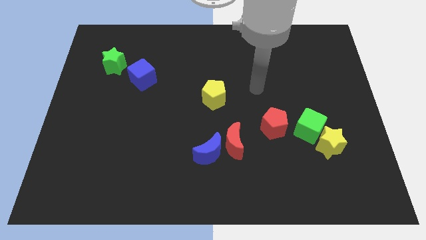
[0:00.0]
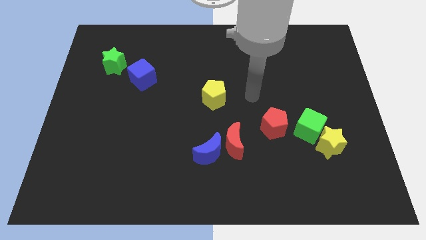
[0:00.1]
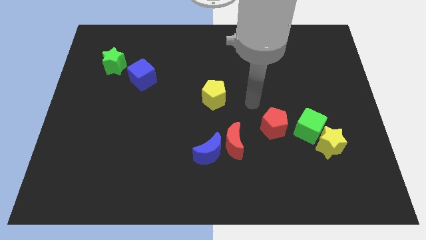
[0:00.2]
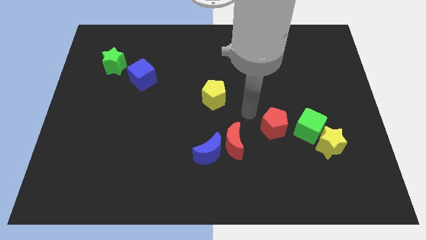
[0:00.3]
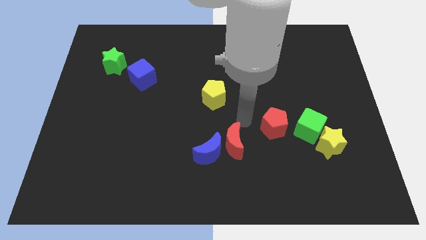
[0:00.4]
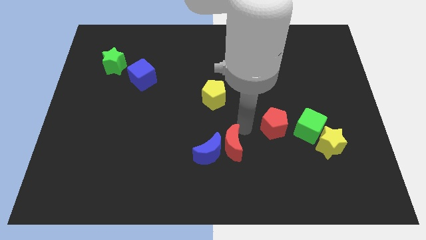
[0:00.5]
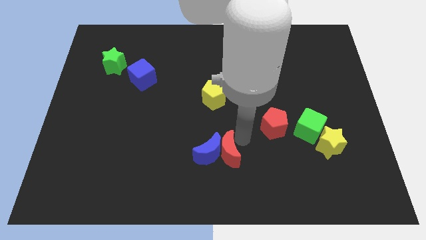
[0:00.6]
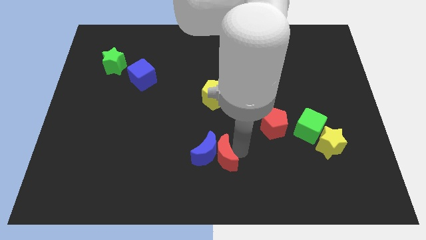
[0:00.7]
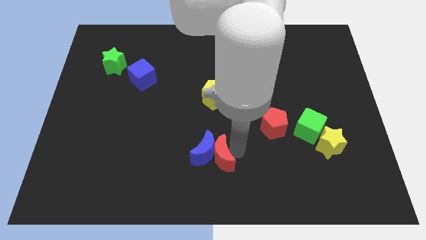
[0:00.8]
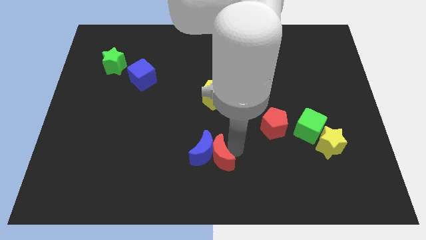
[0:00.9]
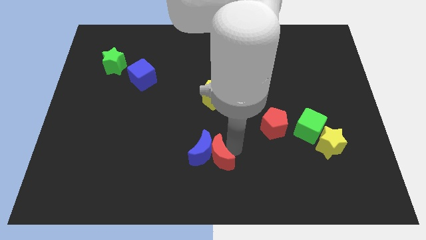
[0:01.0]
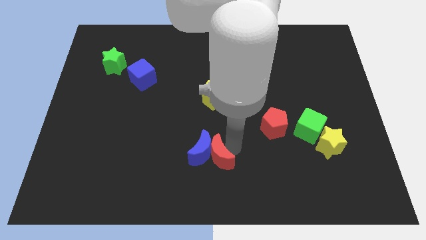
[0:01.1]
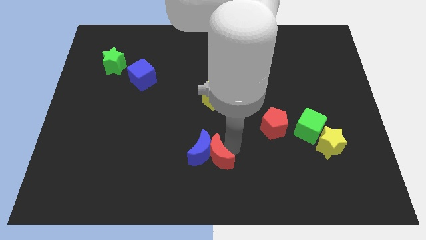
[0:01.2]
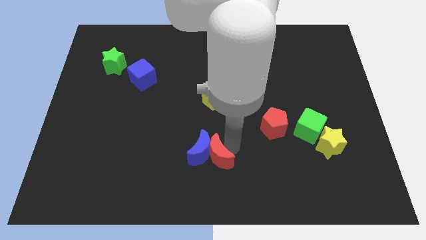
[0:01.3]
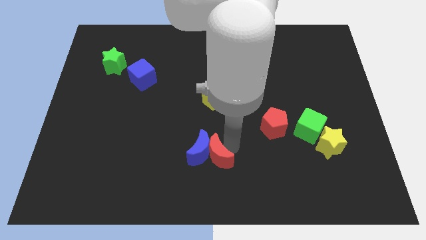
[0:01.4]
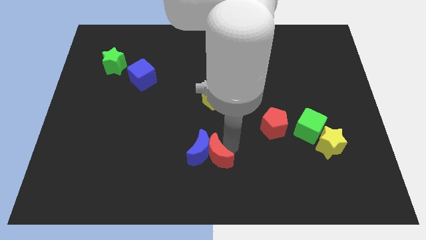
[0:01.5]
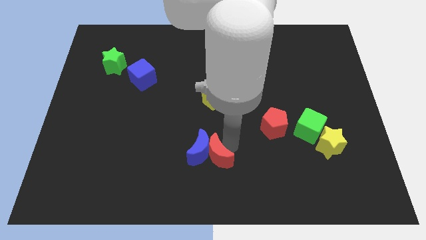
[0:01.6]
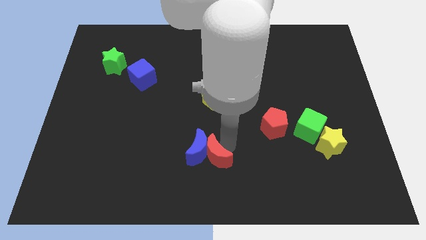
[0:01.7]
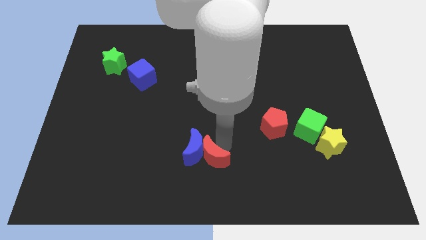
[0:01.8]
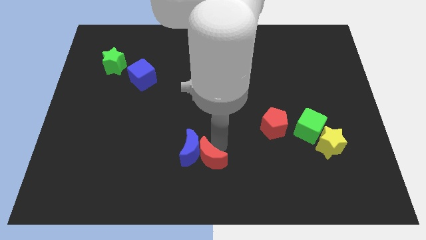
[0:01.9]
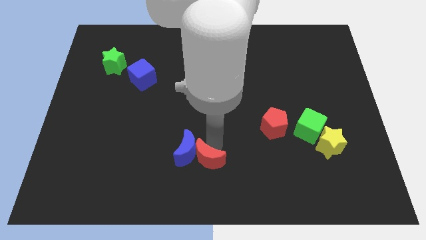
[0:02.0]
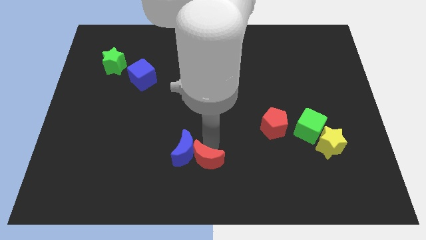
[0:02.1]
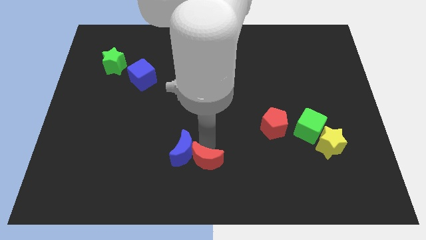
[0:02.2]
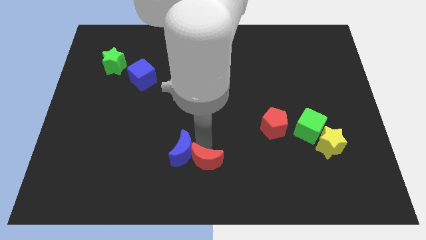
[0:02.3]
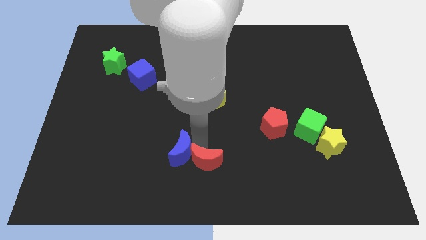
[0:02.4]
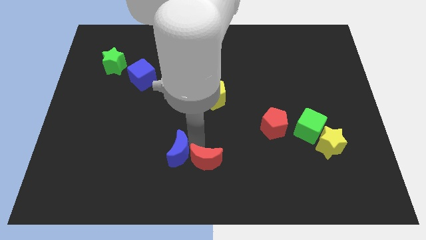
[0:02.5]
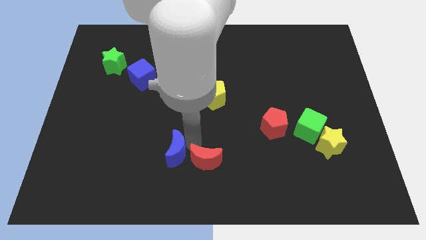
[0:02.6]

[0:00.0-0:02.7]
slide the blue moon a bit to the left

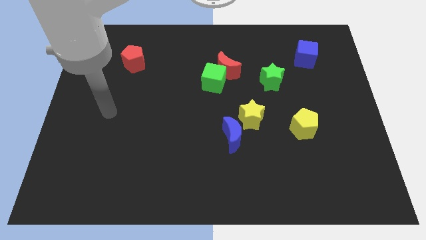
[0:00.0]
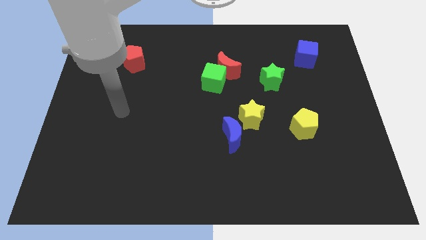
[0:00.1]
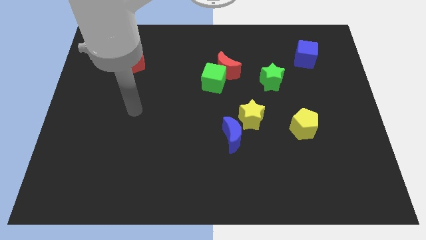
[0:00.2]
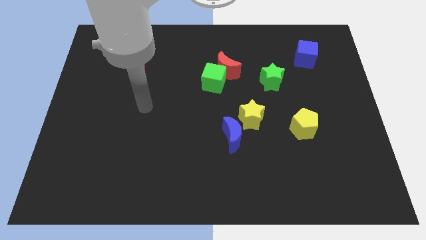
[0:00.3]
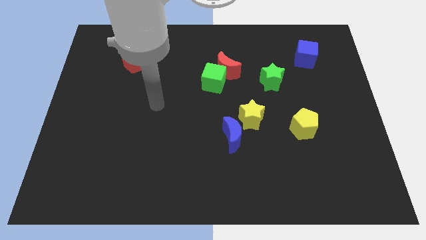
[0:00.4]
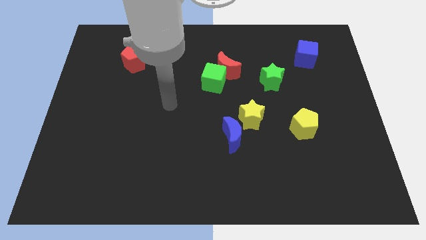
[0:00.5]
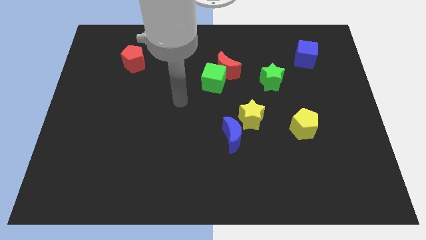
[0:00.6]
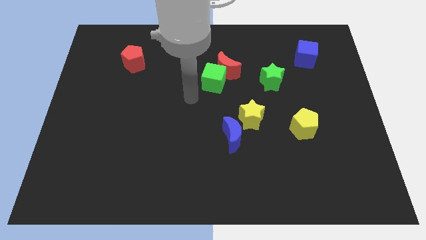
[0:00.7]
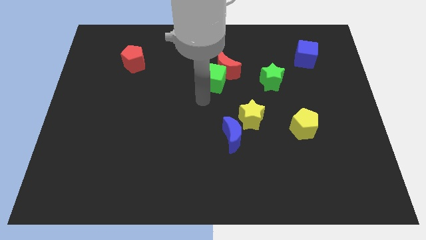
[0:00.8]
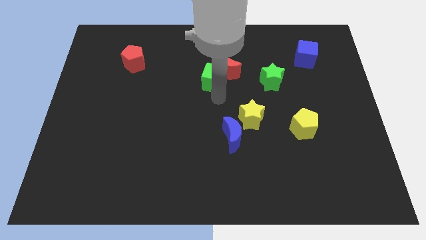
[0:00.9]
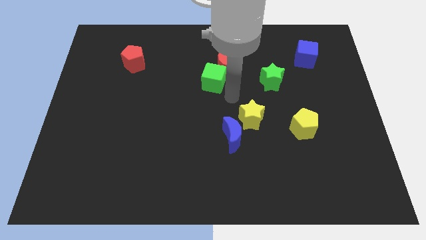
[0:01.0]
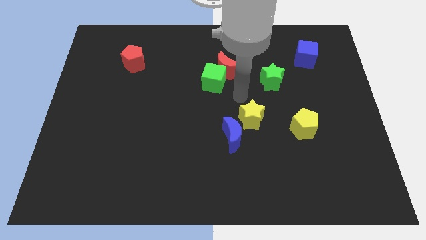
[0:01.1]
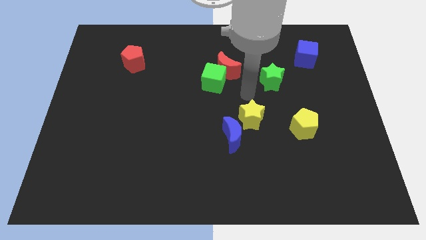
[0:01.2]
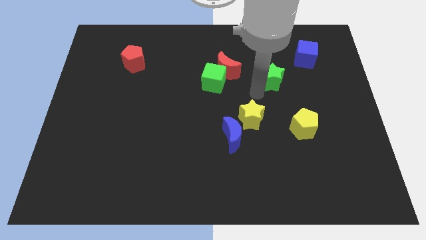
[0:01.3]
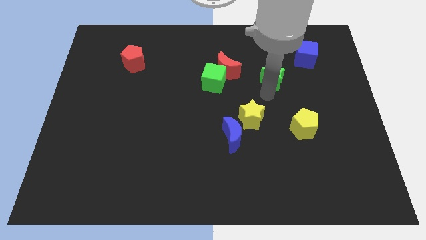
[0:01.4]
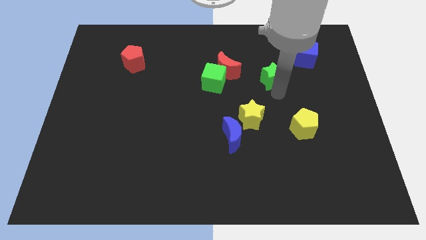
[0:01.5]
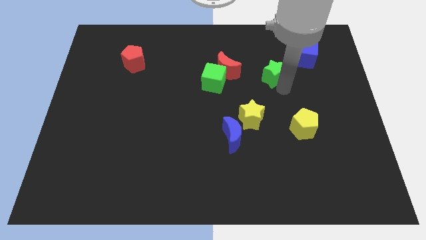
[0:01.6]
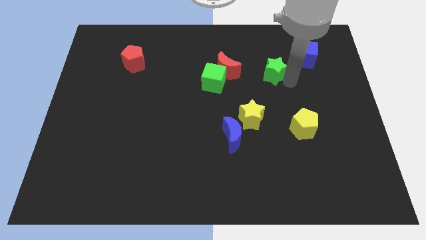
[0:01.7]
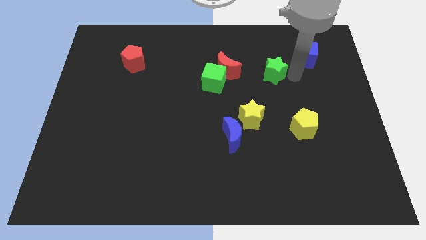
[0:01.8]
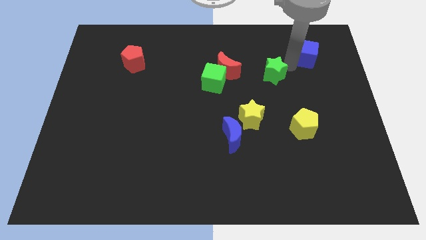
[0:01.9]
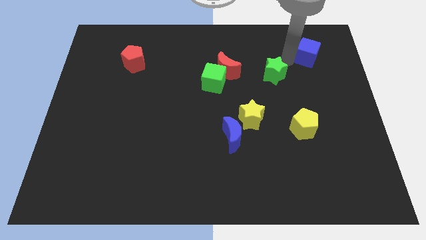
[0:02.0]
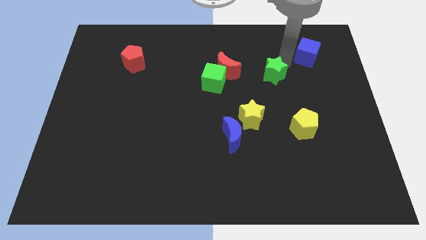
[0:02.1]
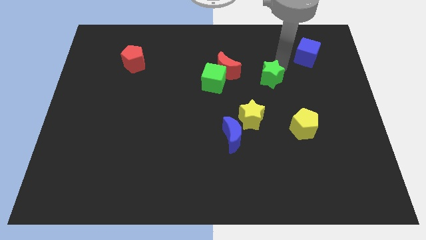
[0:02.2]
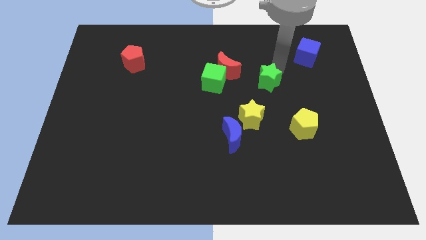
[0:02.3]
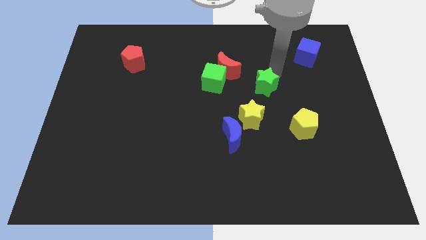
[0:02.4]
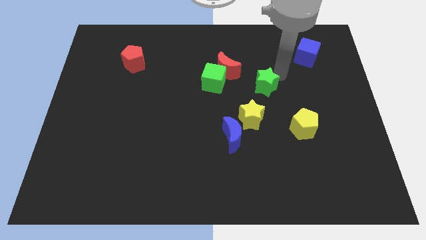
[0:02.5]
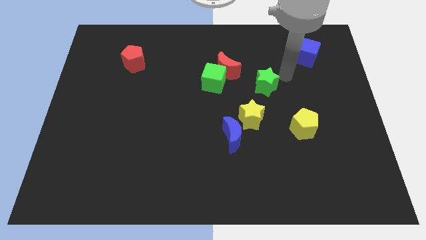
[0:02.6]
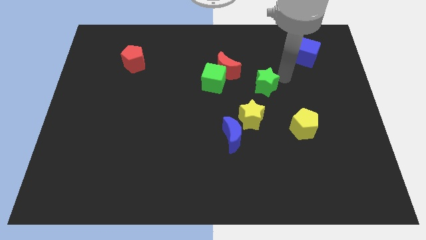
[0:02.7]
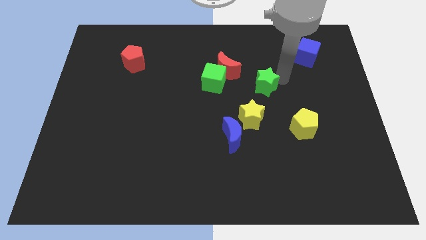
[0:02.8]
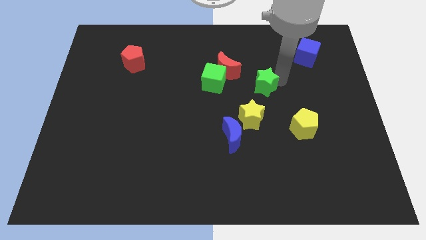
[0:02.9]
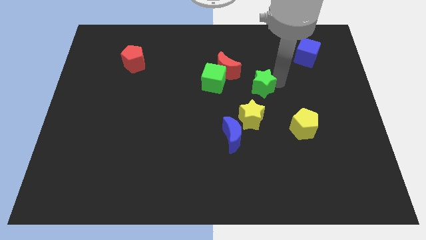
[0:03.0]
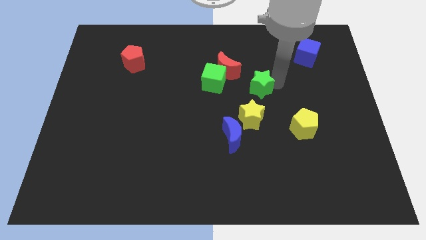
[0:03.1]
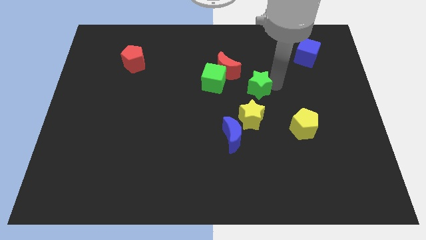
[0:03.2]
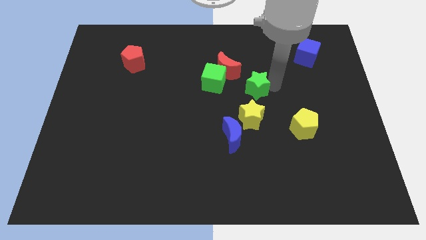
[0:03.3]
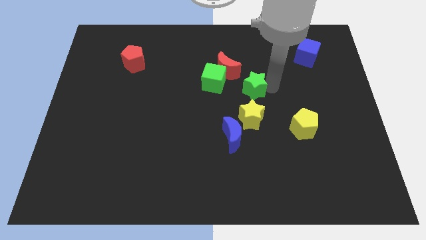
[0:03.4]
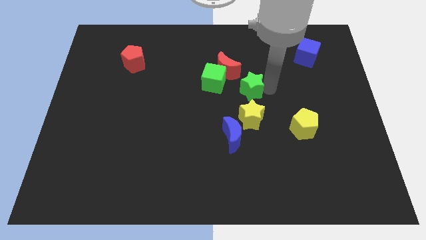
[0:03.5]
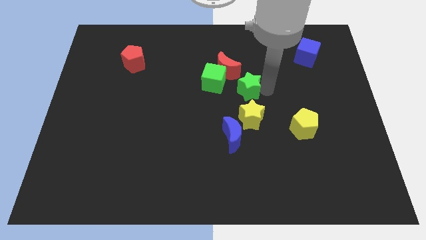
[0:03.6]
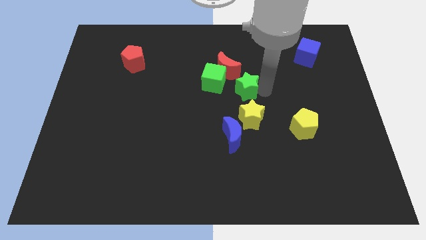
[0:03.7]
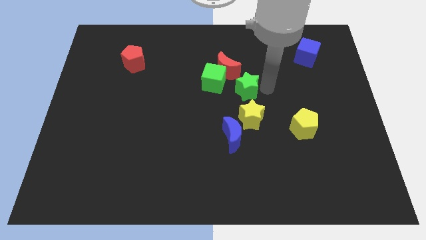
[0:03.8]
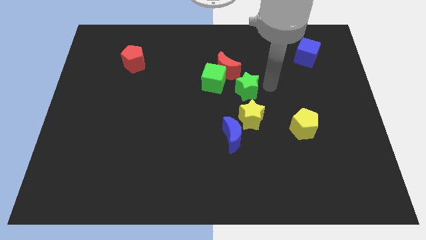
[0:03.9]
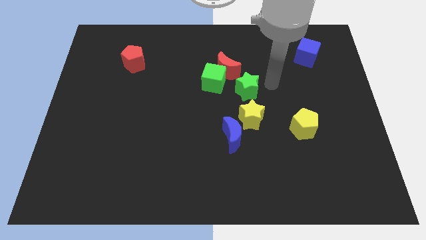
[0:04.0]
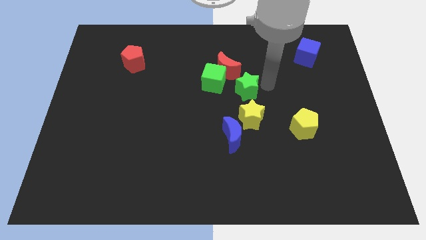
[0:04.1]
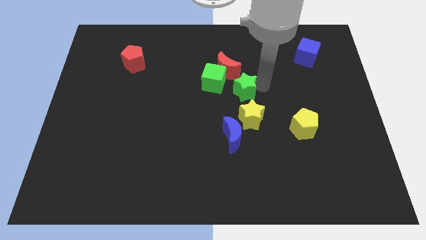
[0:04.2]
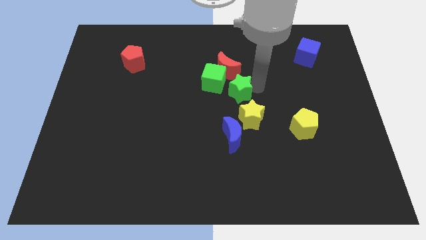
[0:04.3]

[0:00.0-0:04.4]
push the green star left slightly

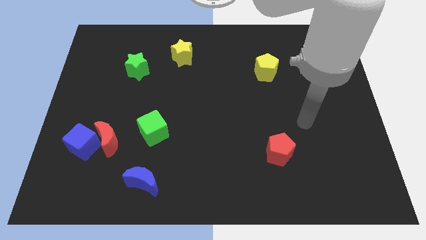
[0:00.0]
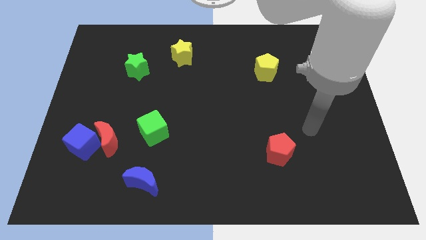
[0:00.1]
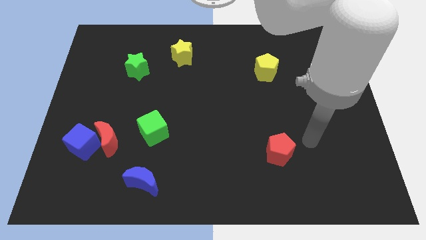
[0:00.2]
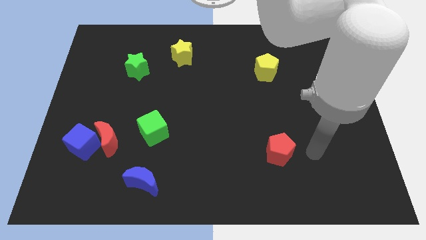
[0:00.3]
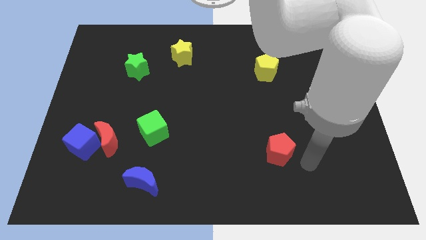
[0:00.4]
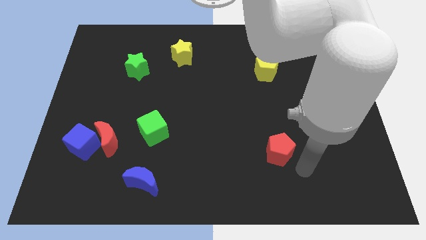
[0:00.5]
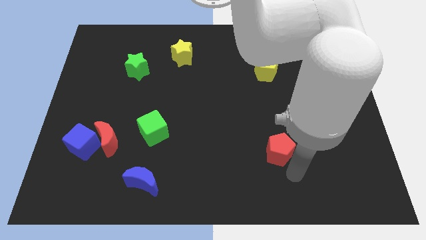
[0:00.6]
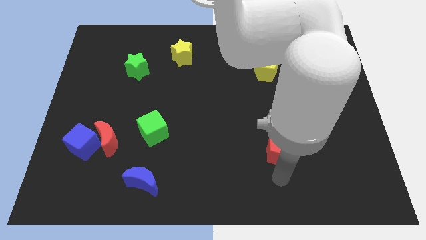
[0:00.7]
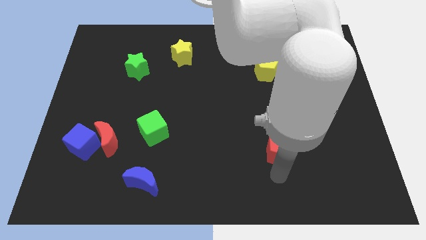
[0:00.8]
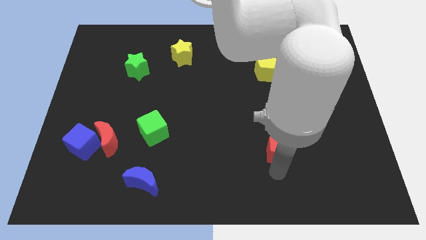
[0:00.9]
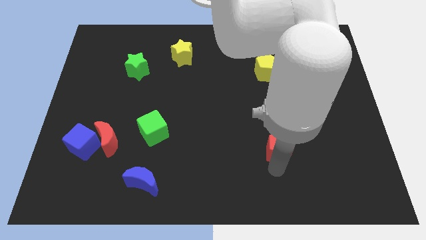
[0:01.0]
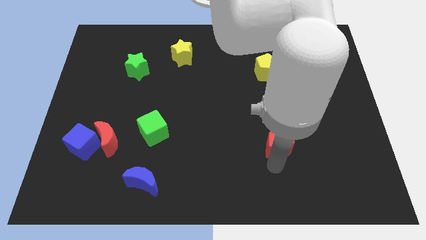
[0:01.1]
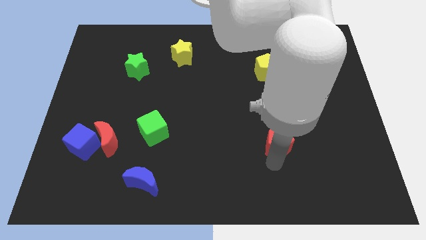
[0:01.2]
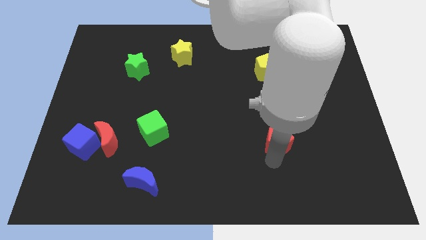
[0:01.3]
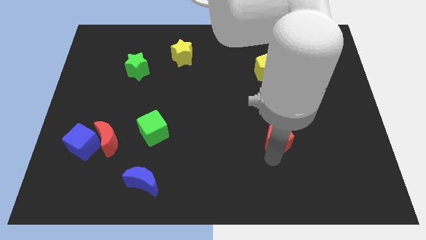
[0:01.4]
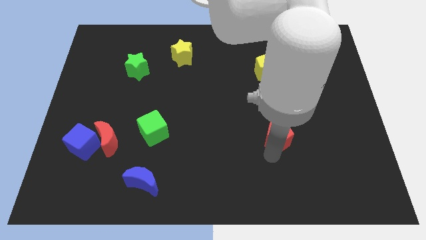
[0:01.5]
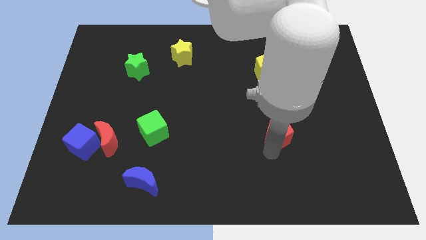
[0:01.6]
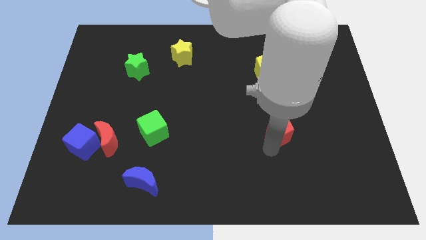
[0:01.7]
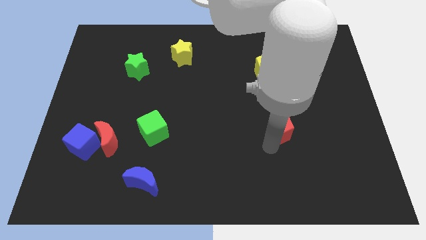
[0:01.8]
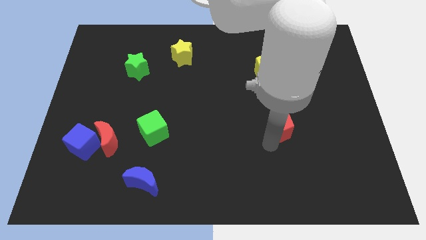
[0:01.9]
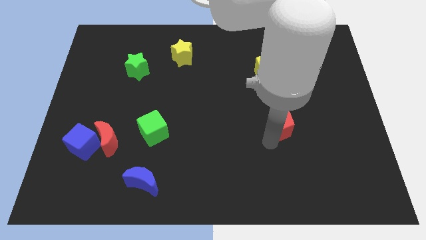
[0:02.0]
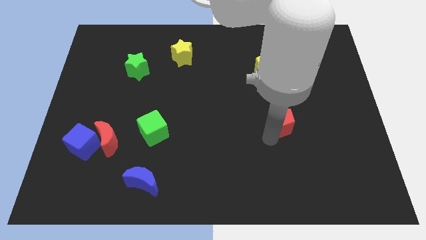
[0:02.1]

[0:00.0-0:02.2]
push the red pentagon up somewhat
